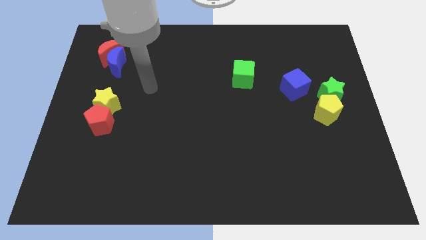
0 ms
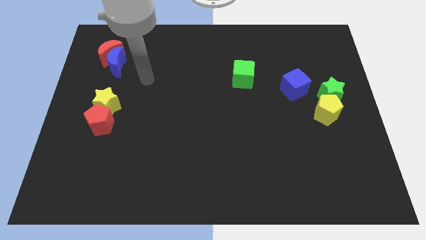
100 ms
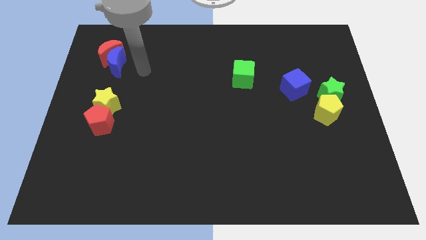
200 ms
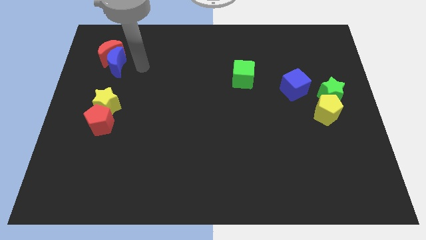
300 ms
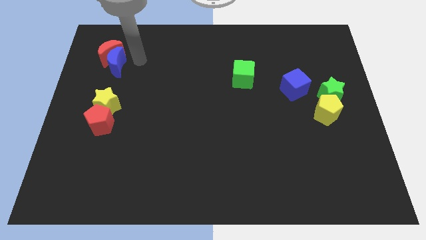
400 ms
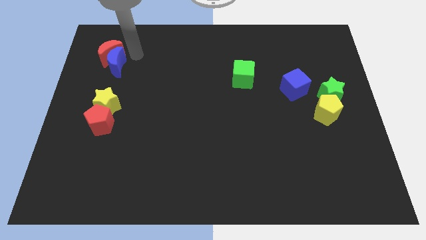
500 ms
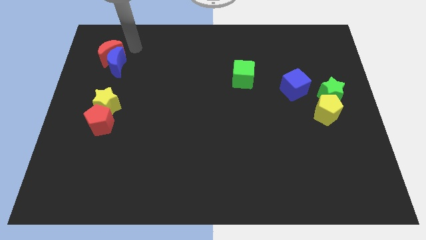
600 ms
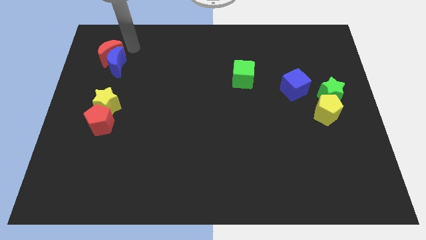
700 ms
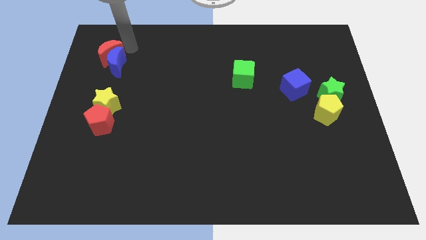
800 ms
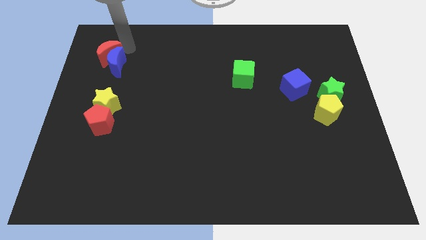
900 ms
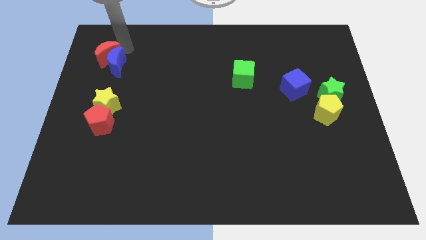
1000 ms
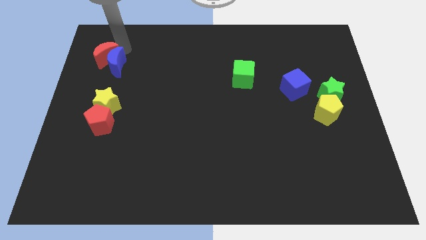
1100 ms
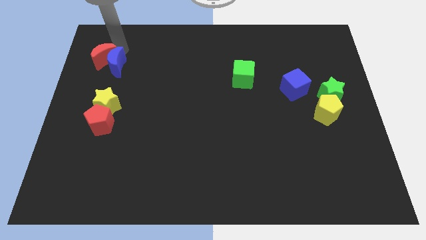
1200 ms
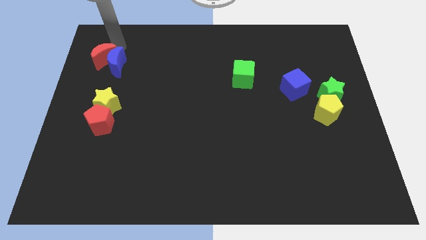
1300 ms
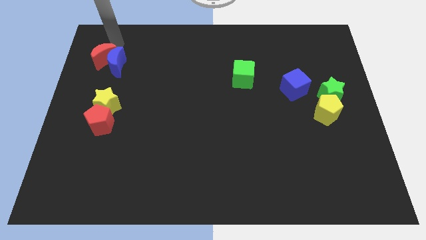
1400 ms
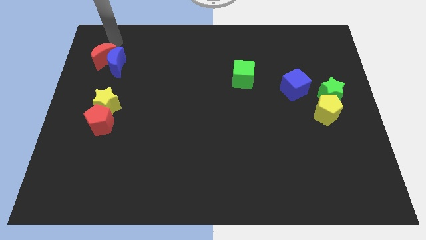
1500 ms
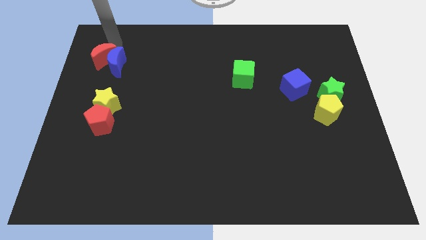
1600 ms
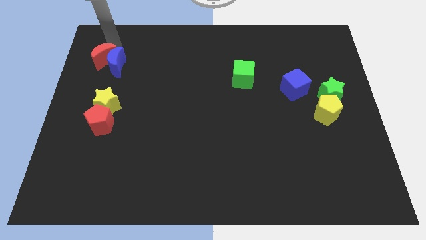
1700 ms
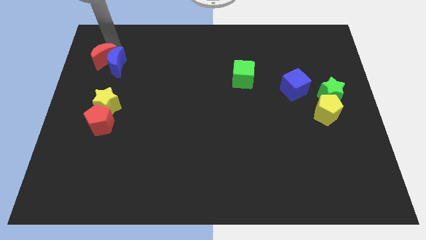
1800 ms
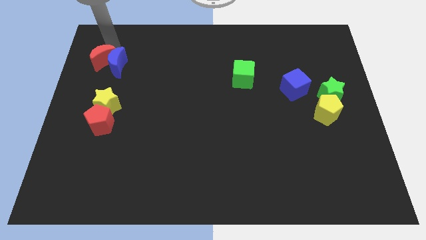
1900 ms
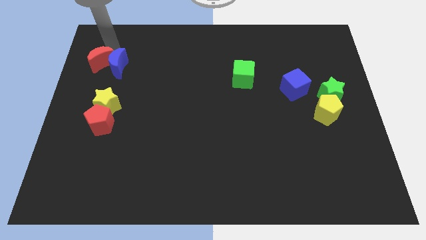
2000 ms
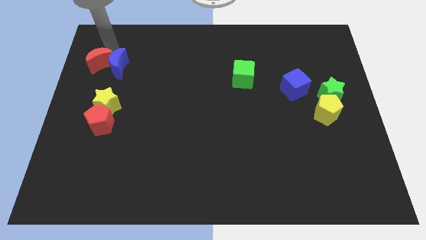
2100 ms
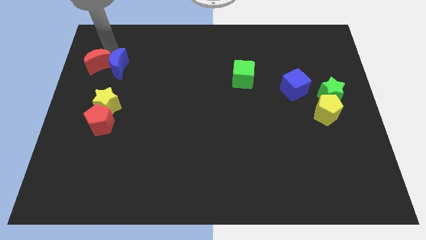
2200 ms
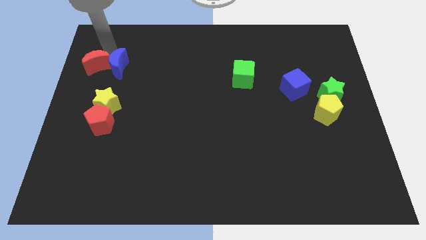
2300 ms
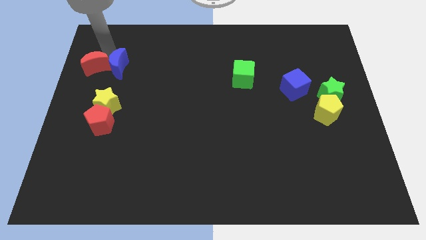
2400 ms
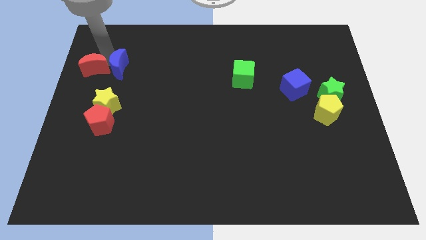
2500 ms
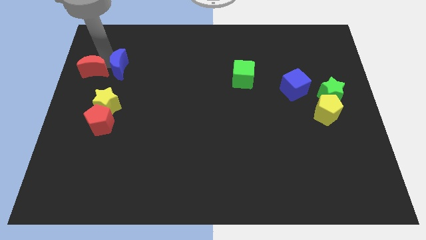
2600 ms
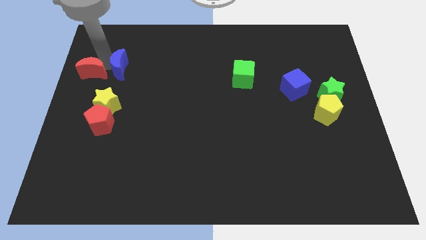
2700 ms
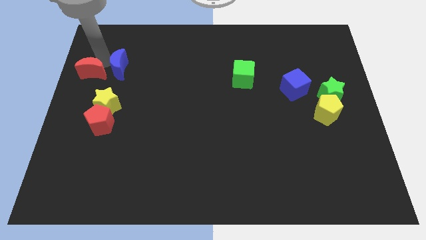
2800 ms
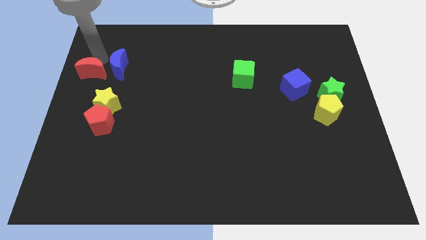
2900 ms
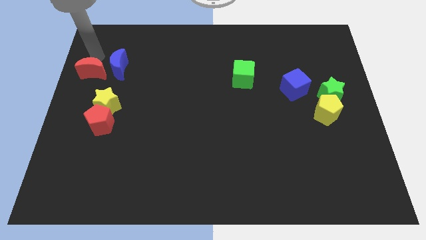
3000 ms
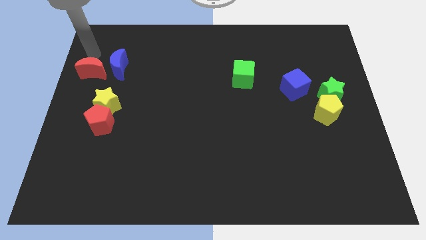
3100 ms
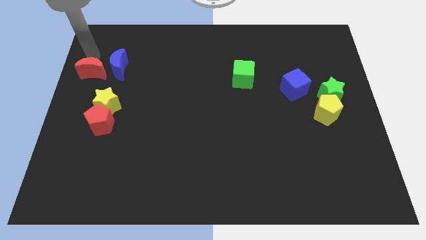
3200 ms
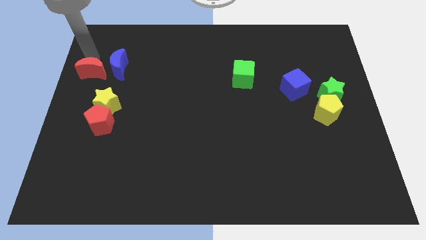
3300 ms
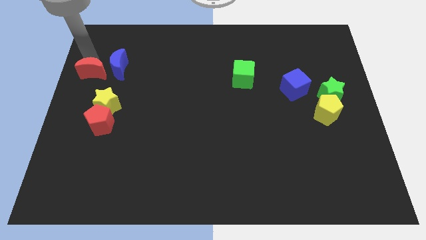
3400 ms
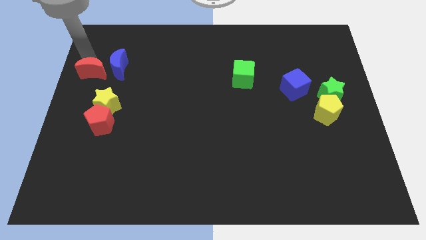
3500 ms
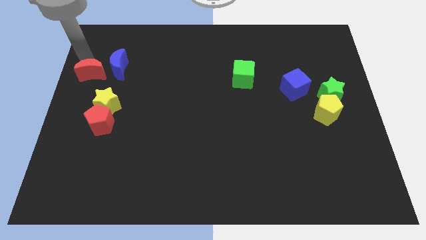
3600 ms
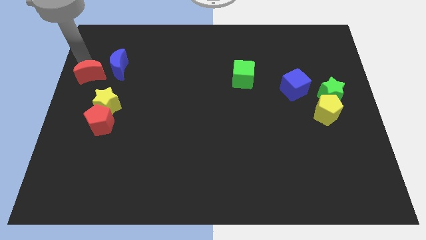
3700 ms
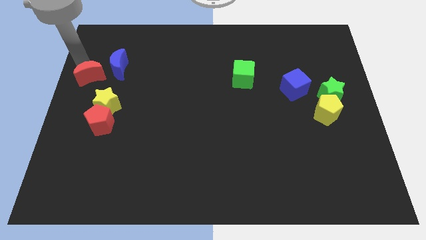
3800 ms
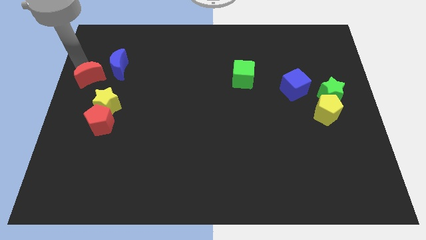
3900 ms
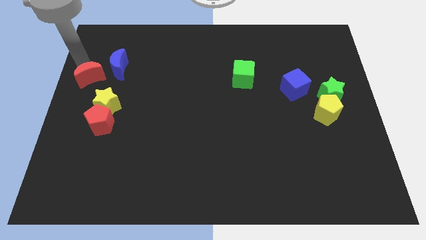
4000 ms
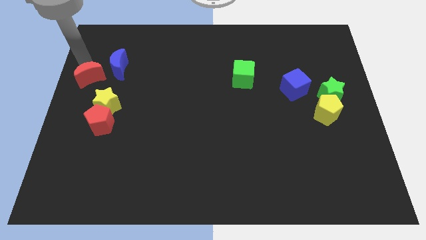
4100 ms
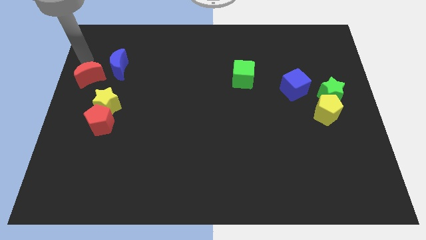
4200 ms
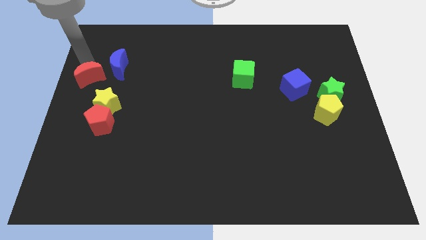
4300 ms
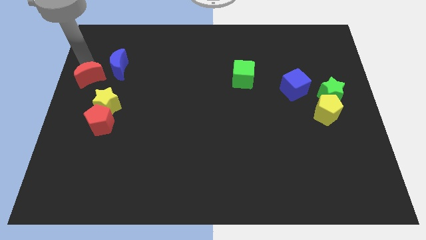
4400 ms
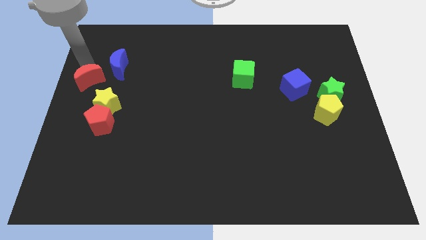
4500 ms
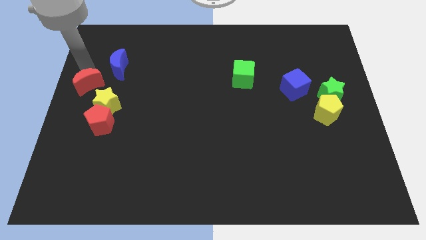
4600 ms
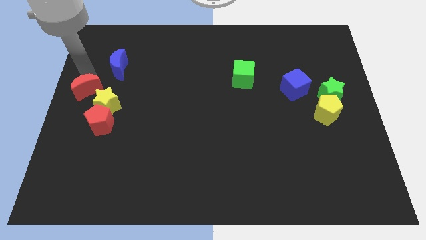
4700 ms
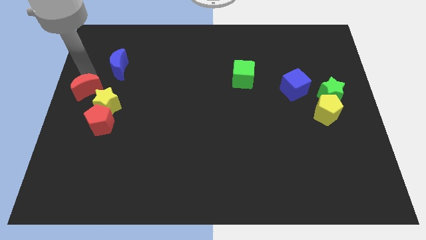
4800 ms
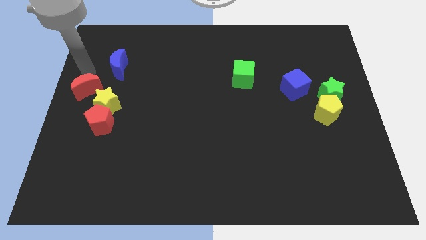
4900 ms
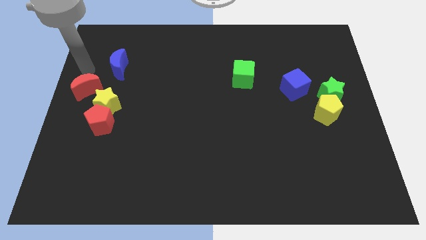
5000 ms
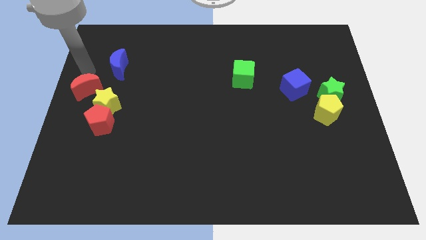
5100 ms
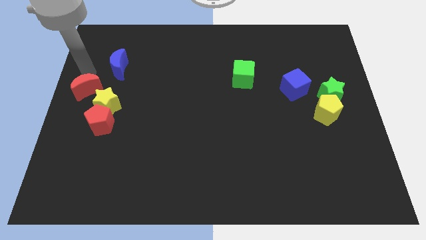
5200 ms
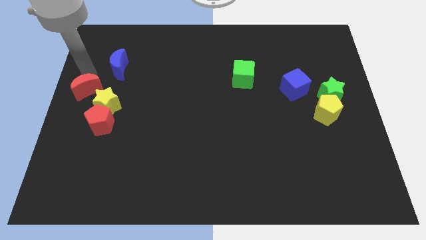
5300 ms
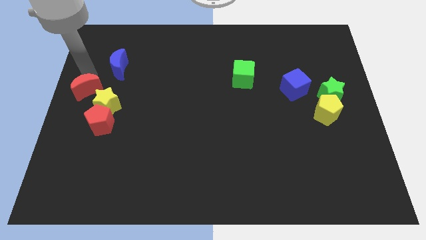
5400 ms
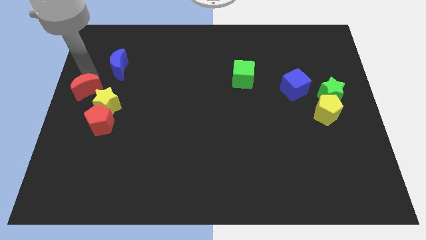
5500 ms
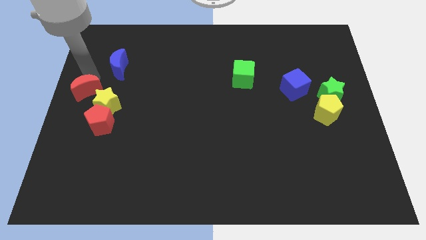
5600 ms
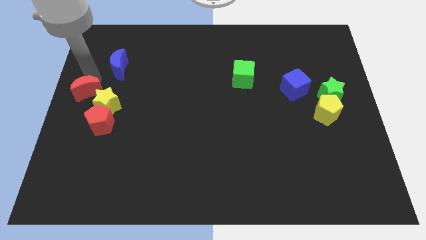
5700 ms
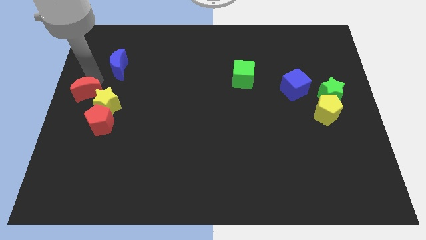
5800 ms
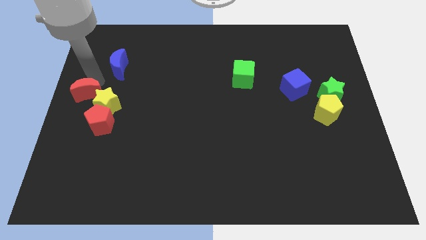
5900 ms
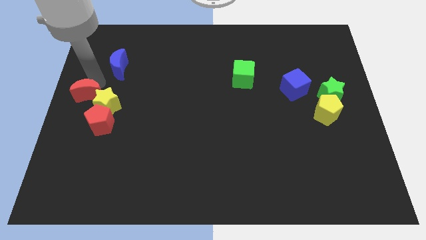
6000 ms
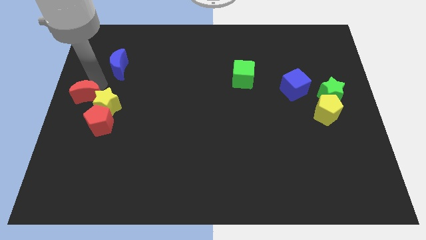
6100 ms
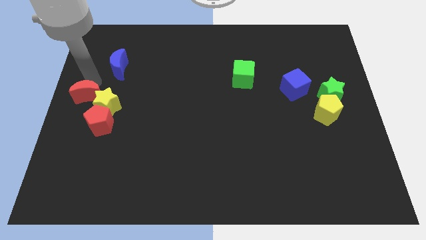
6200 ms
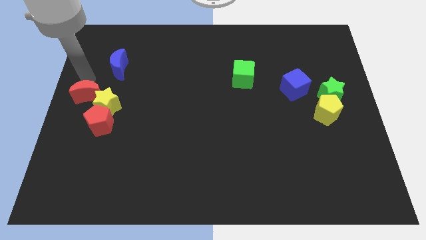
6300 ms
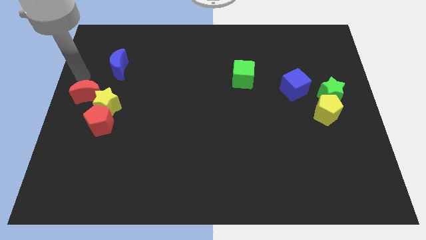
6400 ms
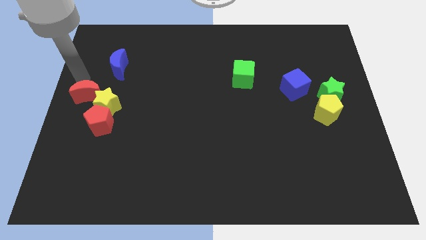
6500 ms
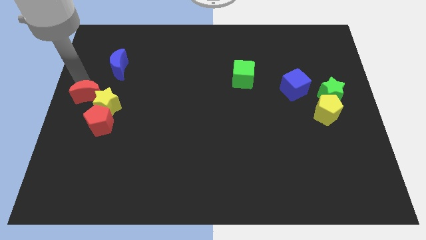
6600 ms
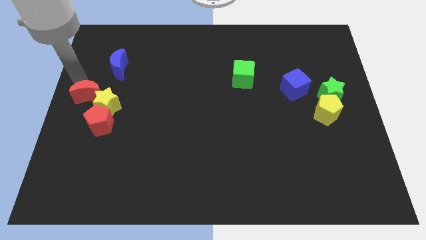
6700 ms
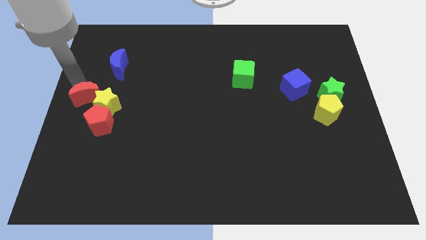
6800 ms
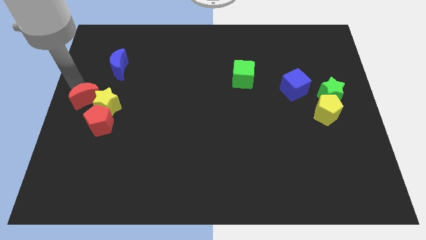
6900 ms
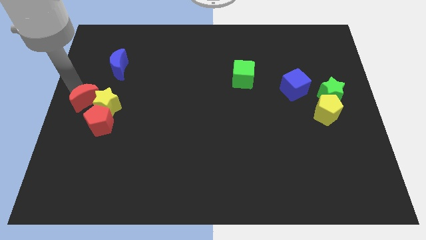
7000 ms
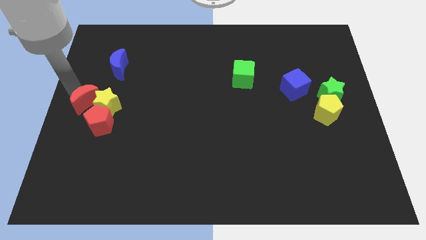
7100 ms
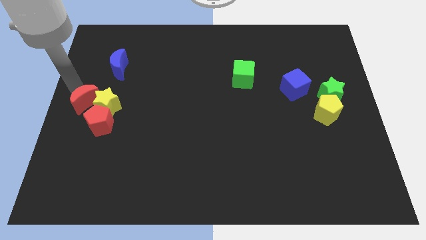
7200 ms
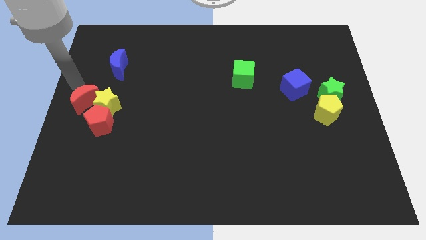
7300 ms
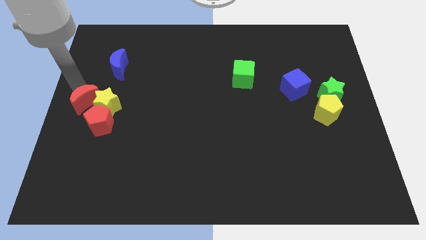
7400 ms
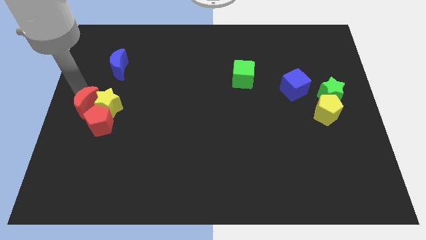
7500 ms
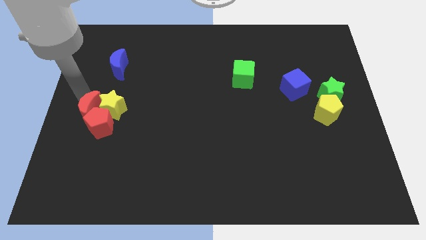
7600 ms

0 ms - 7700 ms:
push the red moon close to the red pentagon
